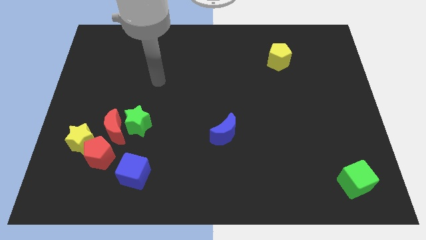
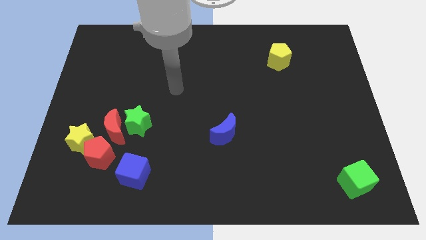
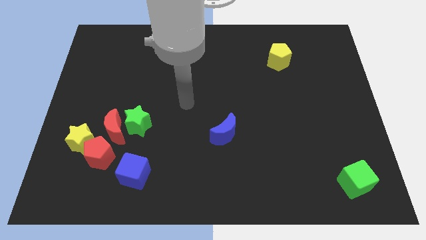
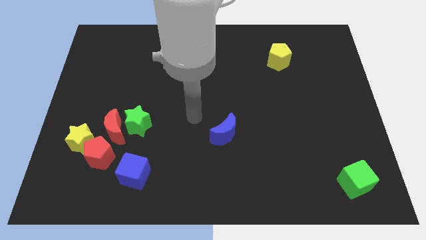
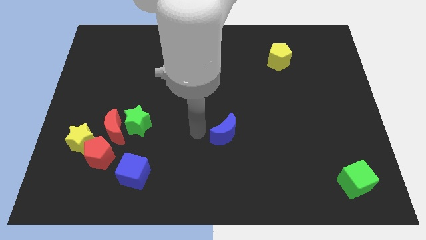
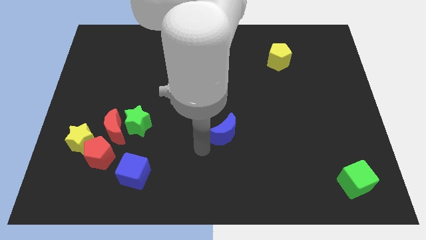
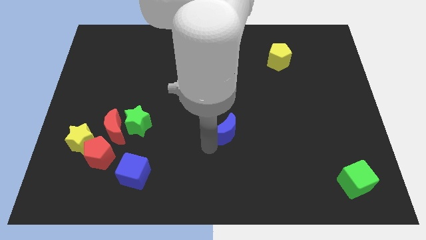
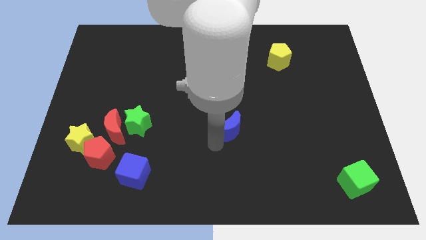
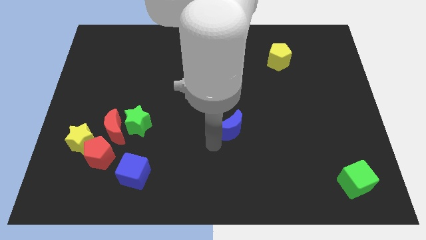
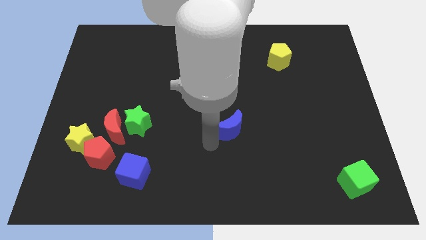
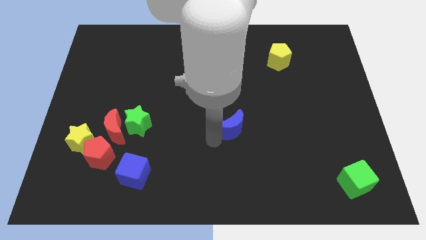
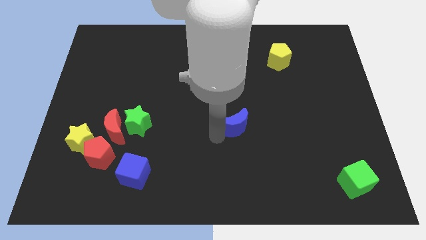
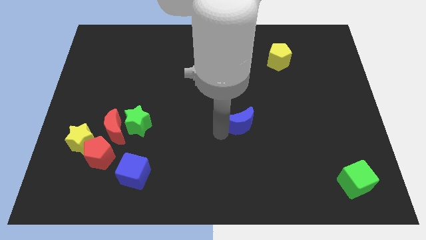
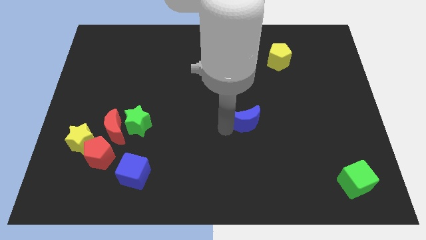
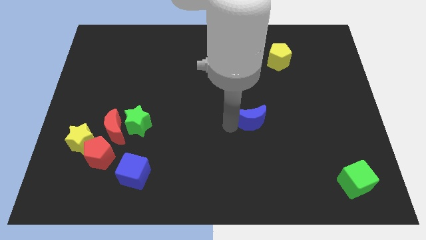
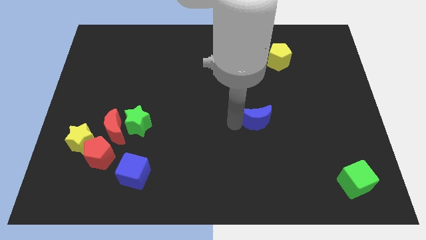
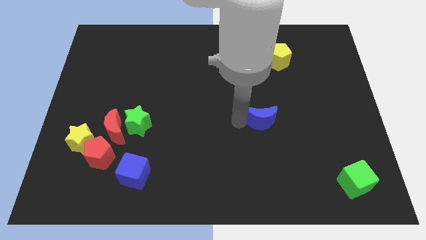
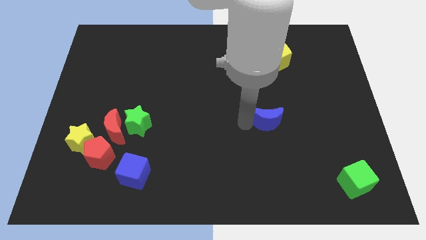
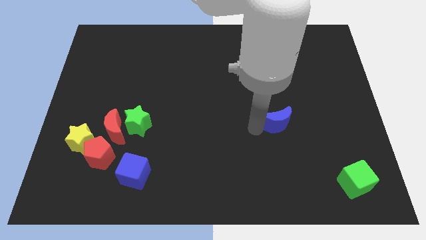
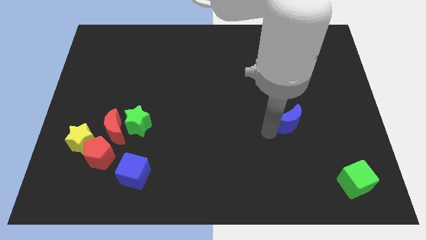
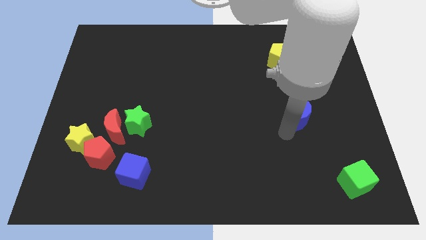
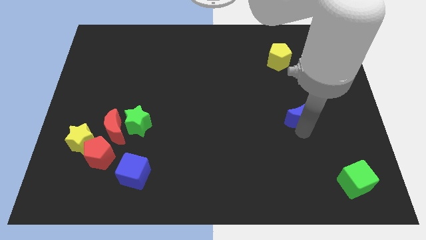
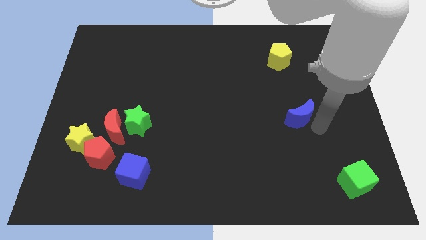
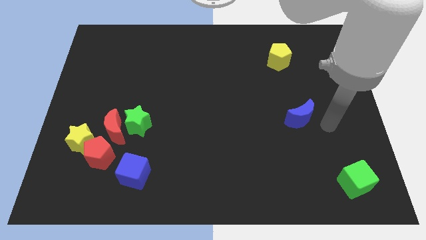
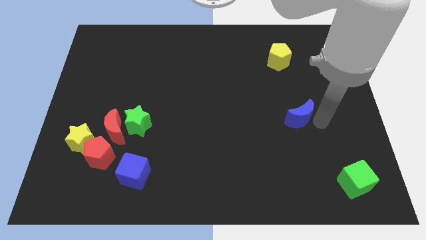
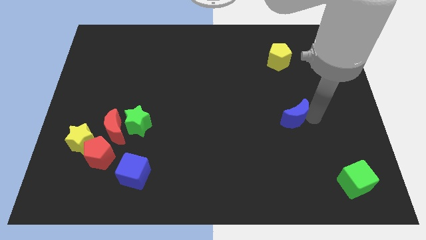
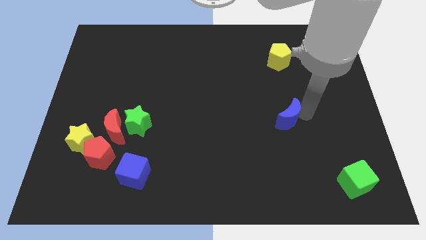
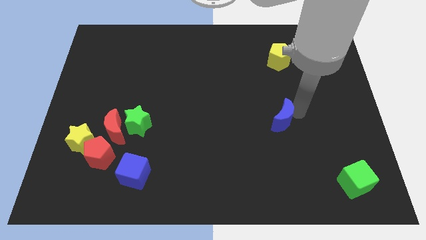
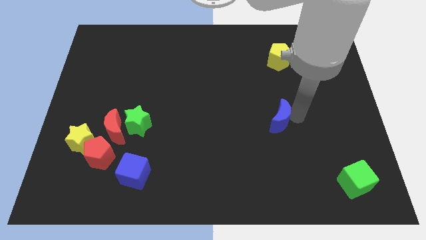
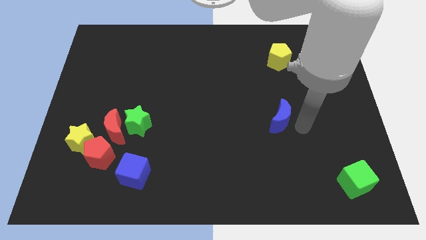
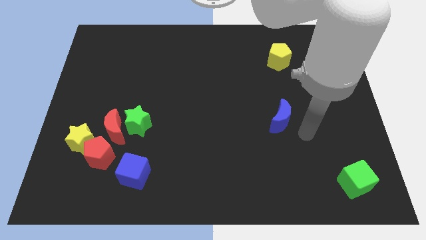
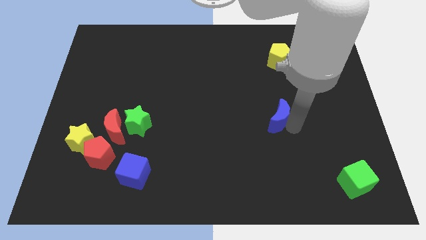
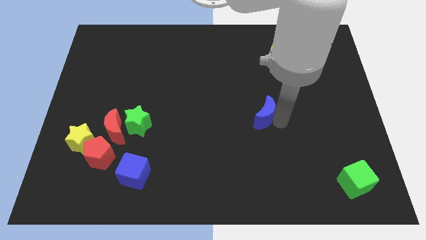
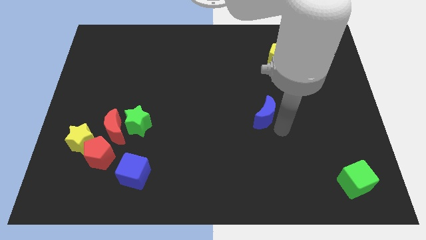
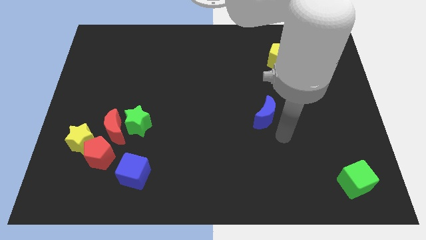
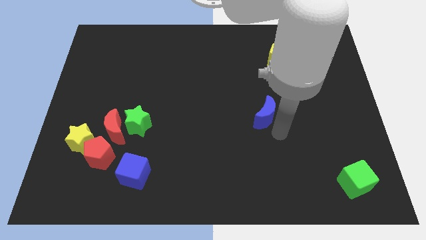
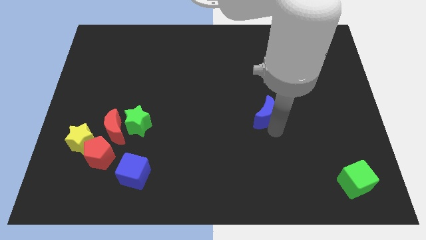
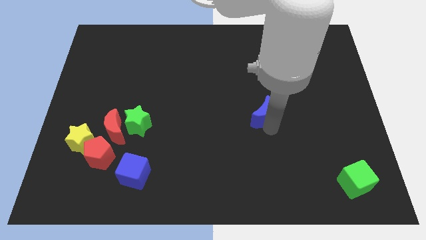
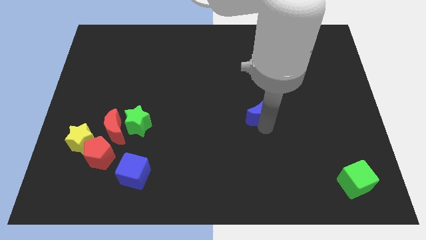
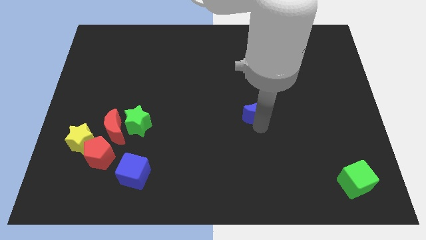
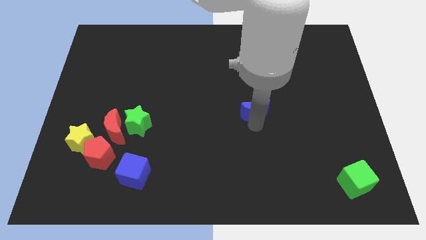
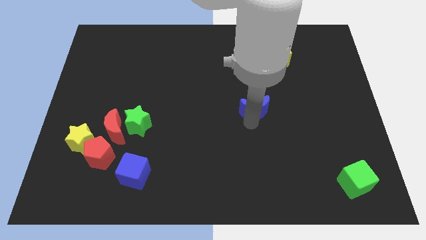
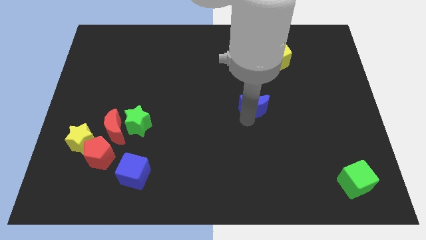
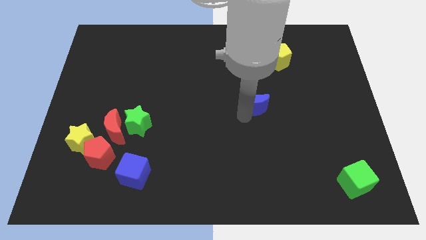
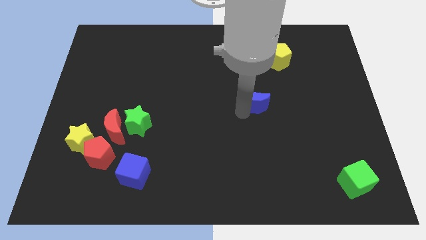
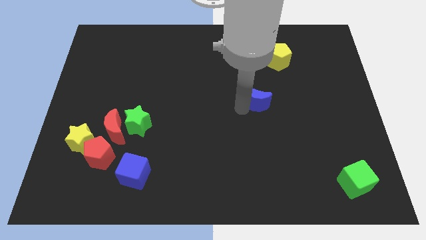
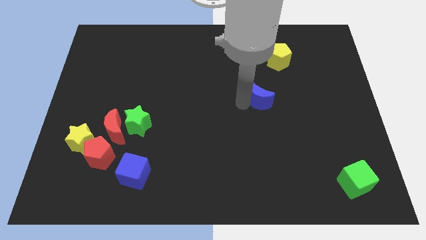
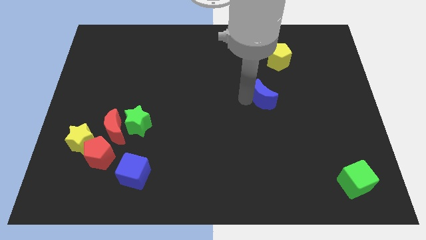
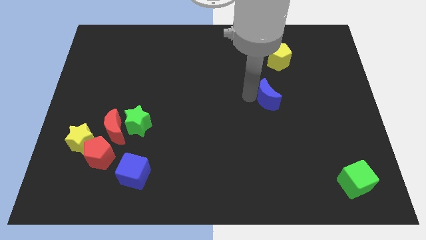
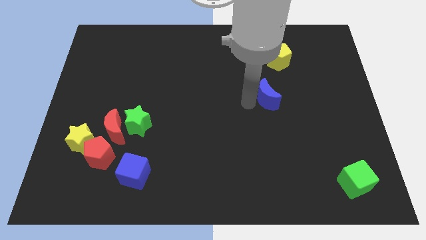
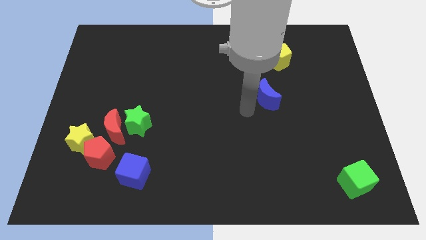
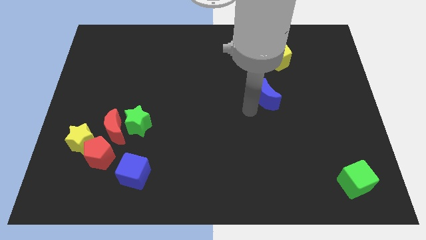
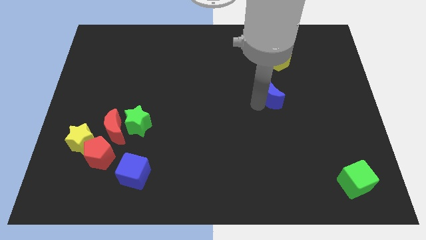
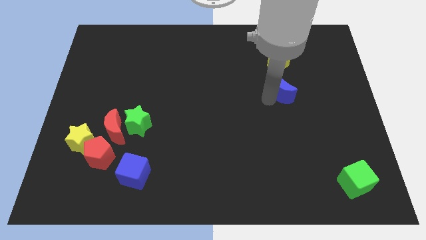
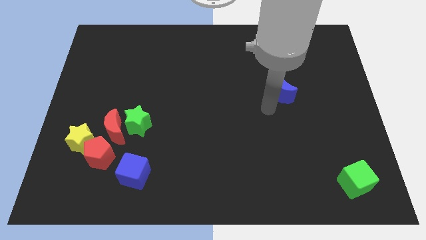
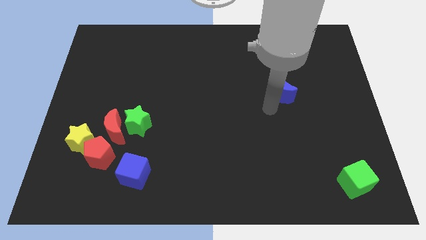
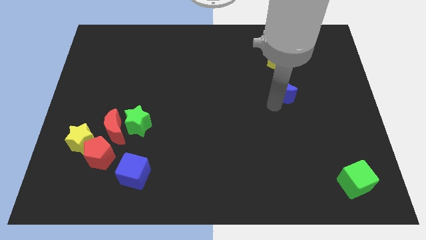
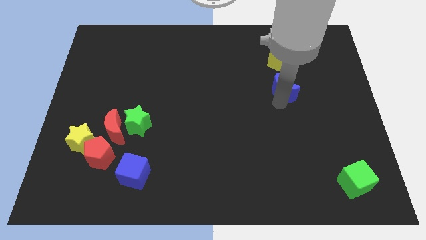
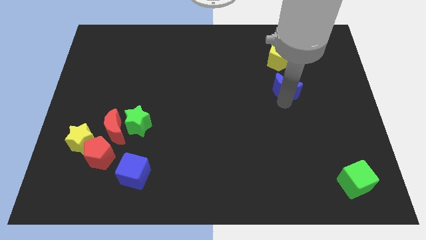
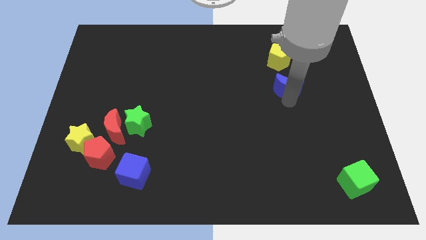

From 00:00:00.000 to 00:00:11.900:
slide the blue moon diagonally up and right

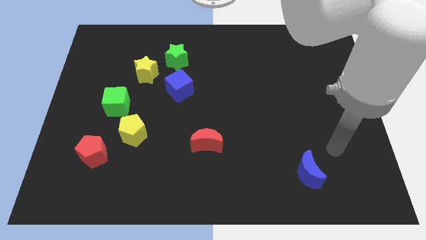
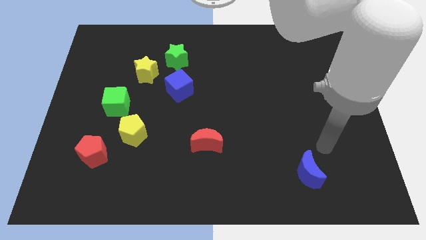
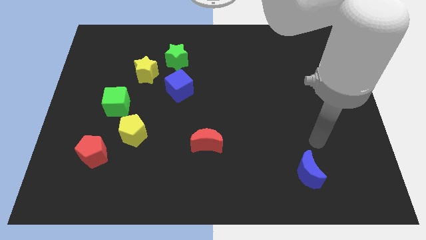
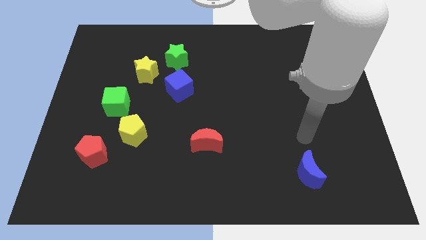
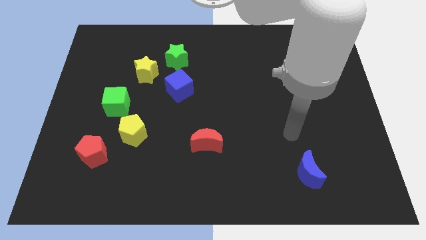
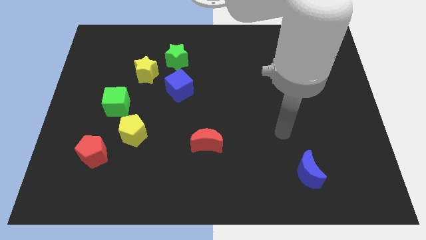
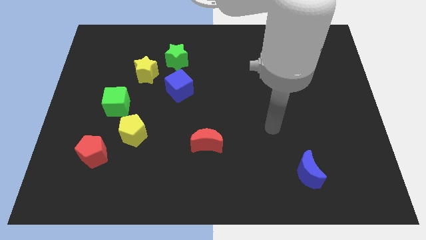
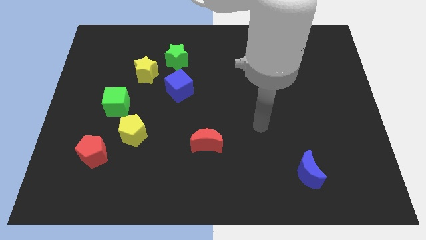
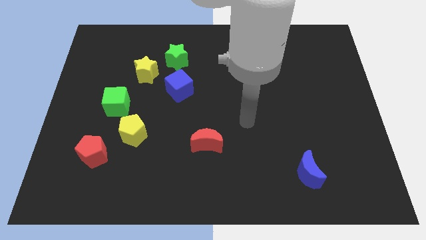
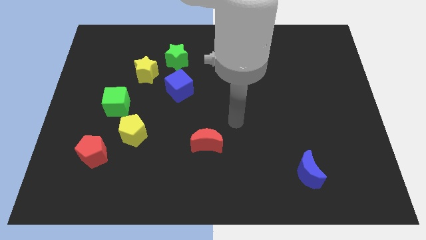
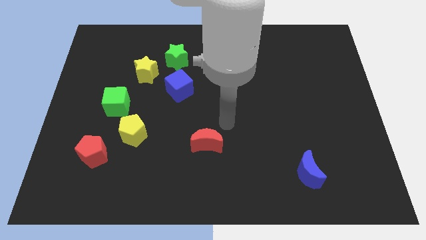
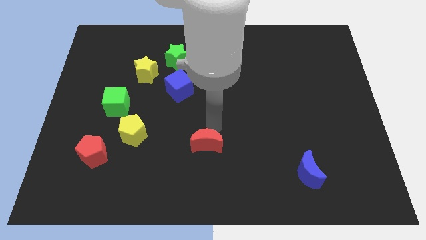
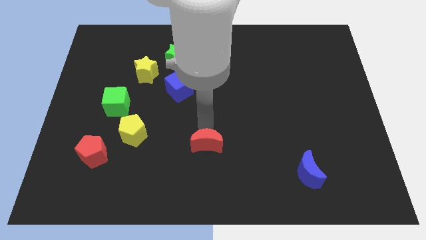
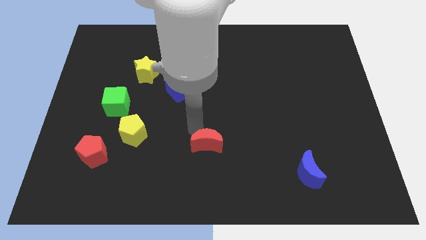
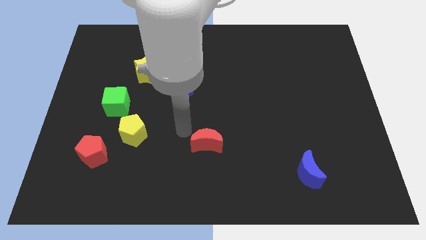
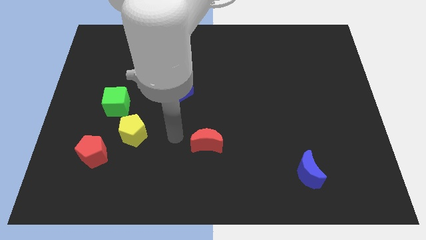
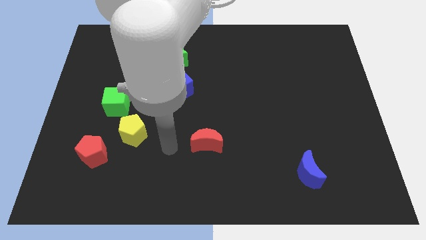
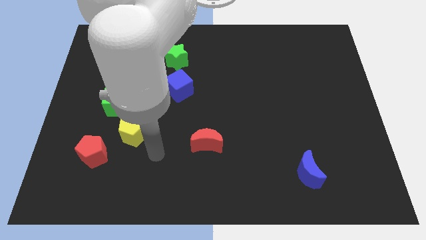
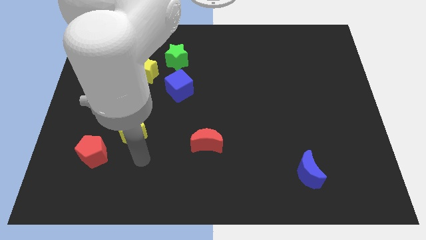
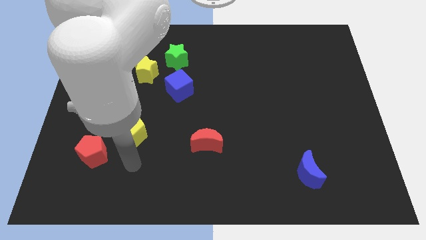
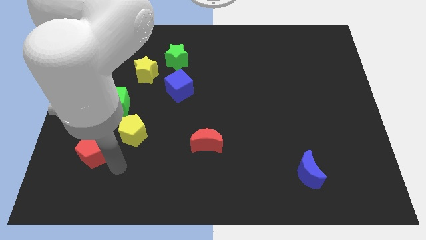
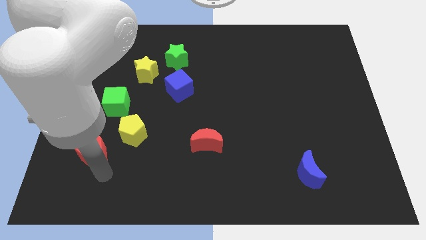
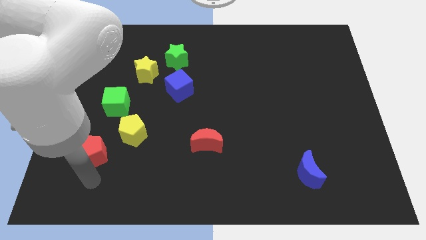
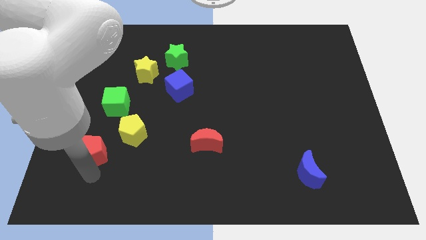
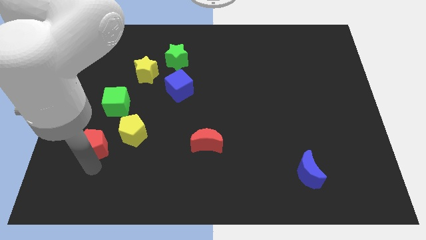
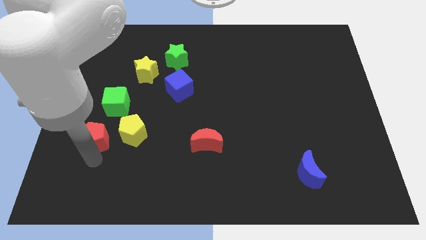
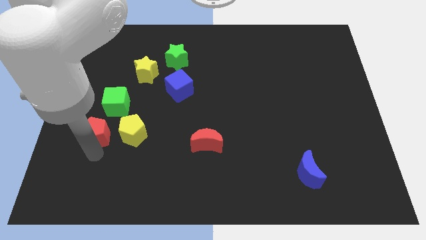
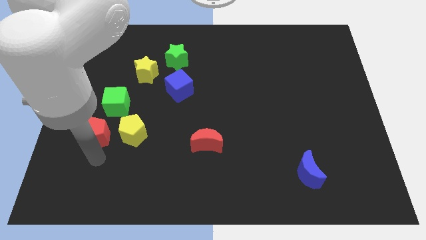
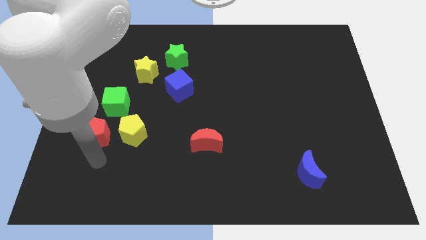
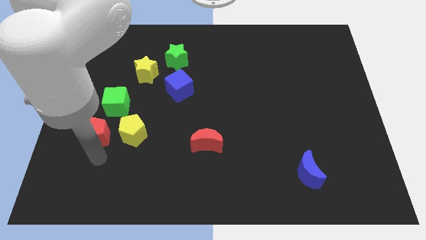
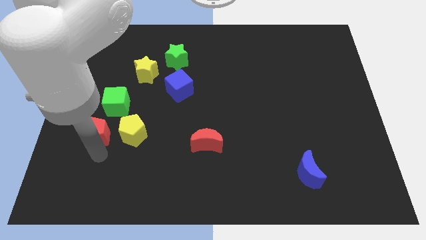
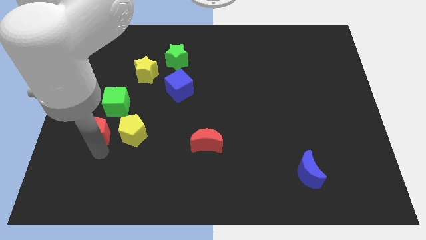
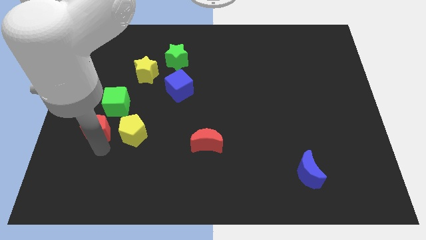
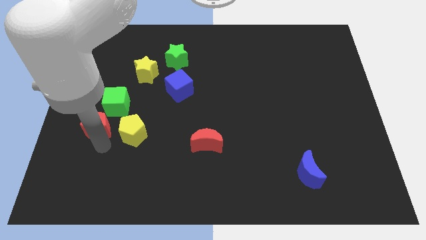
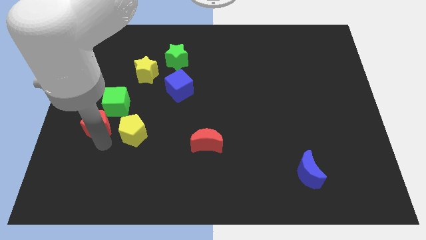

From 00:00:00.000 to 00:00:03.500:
slightly slide the red pentagon upwards
